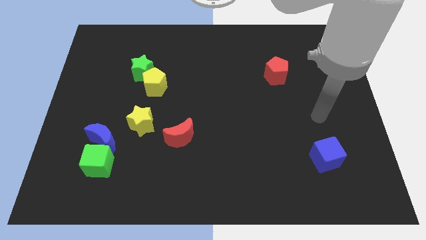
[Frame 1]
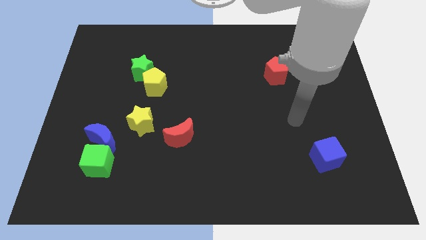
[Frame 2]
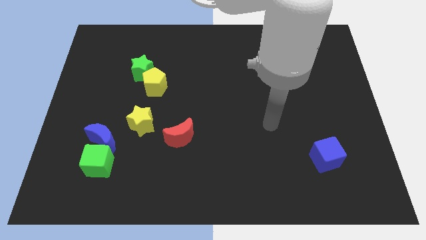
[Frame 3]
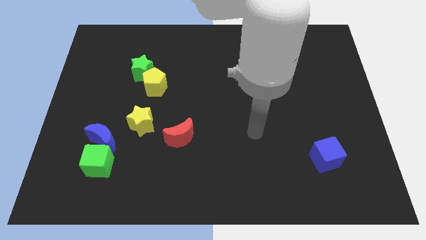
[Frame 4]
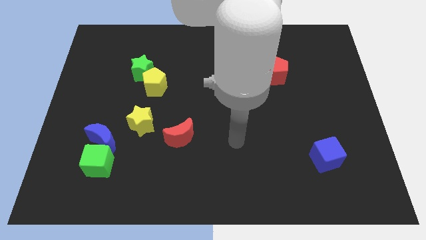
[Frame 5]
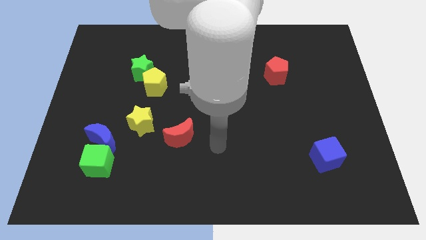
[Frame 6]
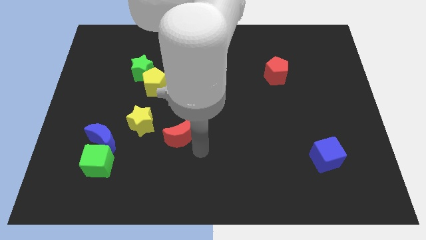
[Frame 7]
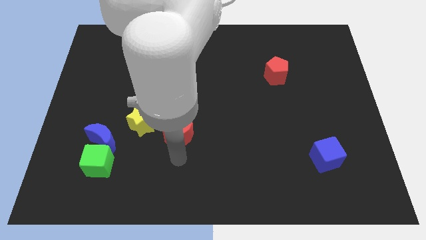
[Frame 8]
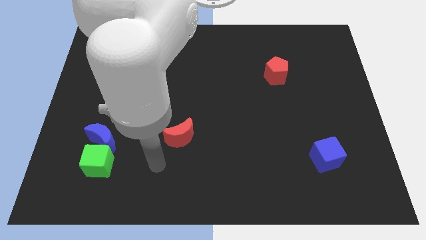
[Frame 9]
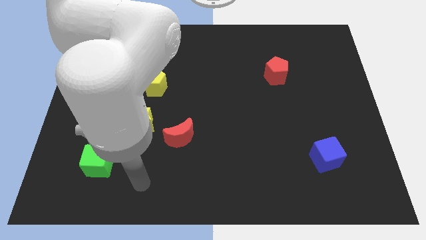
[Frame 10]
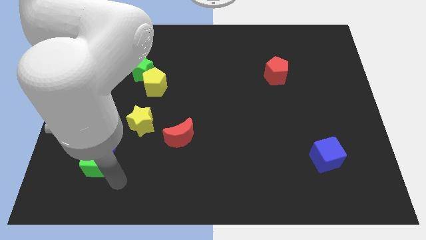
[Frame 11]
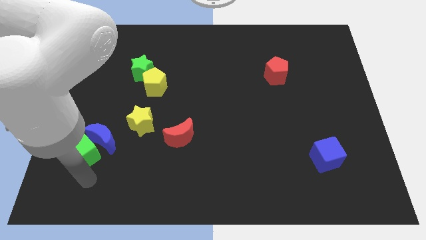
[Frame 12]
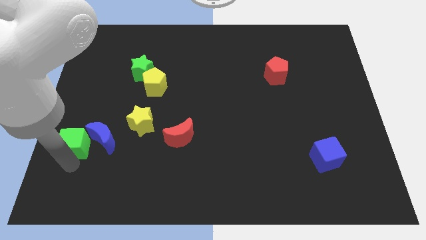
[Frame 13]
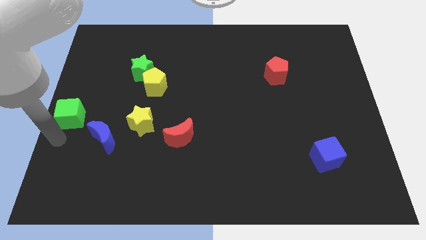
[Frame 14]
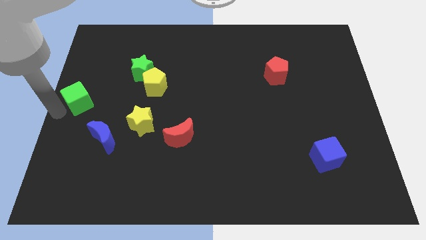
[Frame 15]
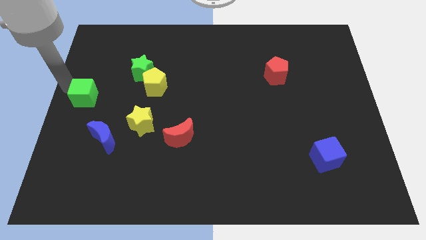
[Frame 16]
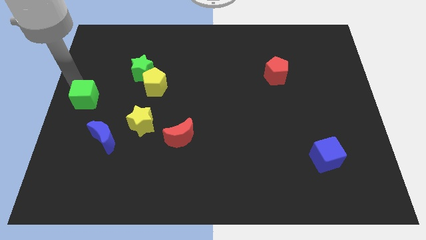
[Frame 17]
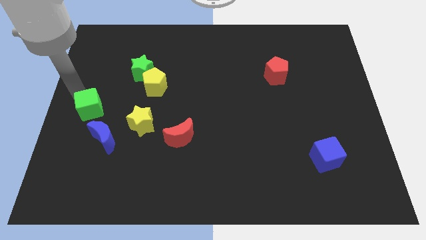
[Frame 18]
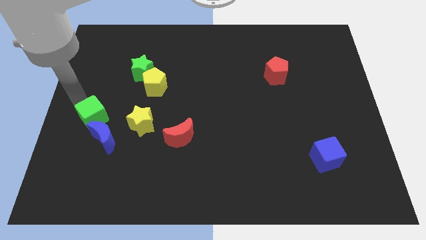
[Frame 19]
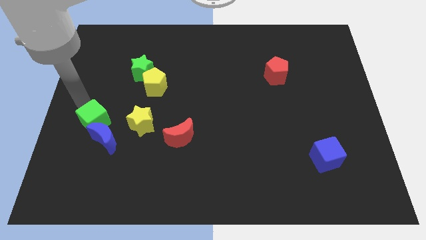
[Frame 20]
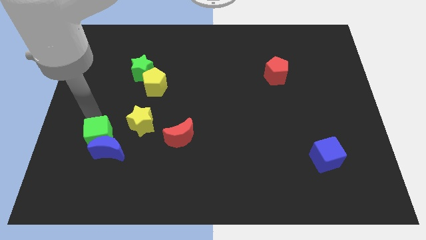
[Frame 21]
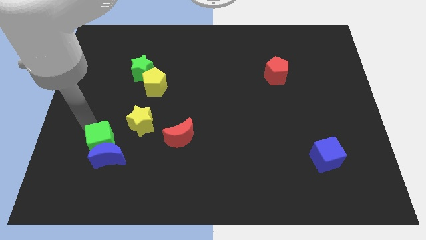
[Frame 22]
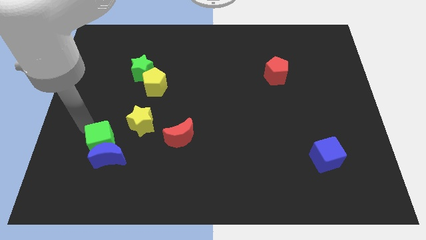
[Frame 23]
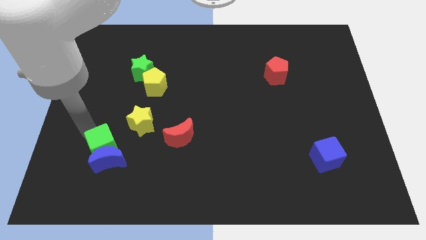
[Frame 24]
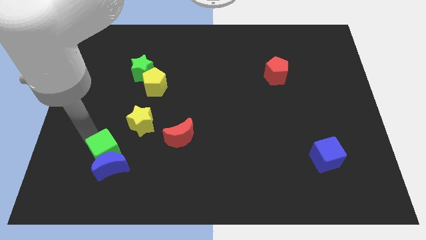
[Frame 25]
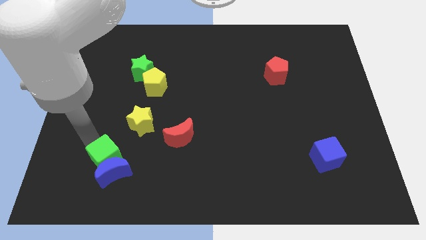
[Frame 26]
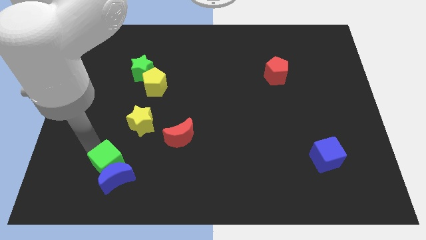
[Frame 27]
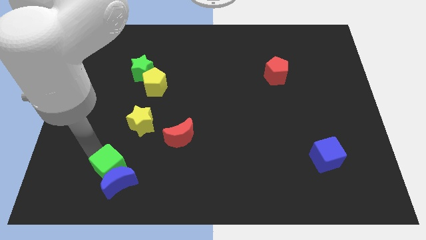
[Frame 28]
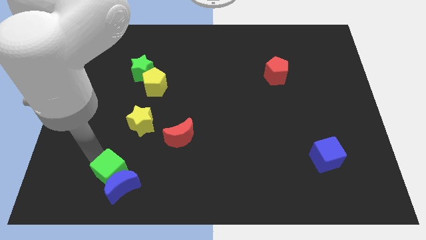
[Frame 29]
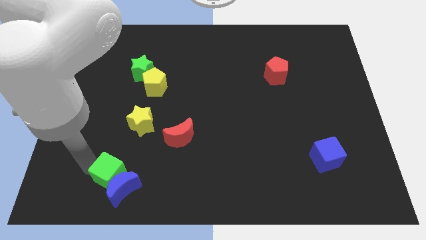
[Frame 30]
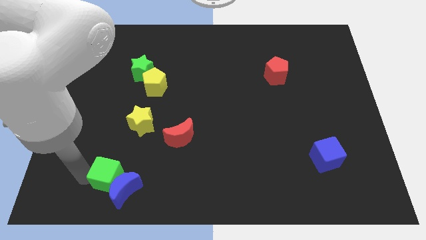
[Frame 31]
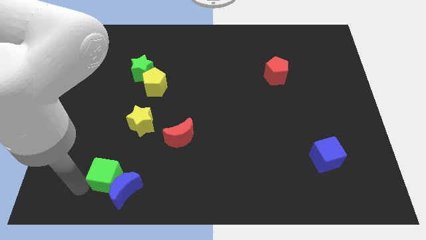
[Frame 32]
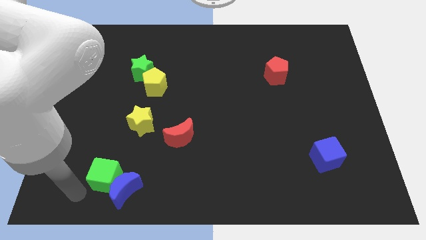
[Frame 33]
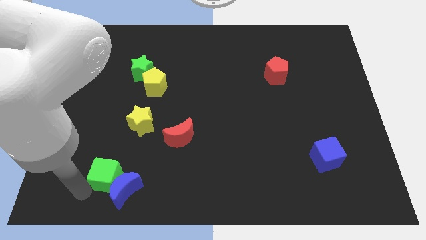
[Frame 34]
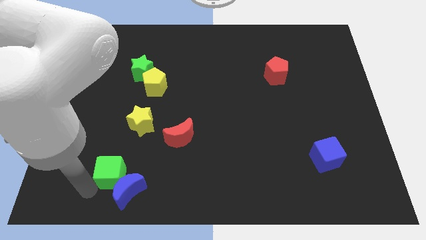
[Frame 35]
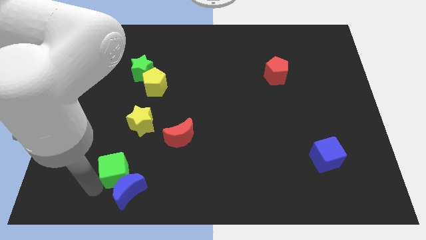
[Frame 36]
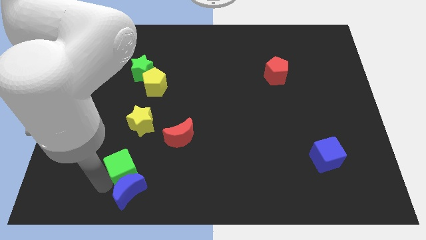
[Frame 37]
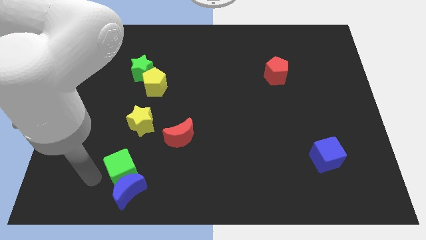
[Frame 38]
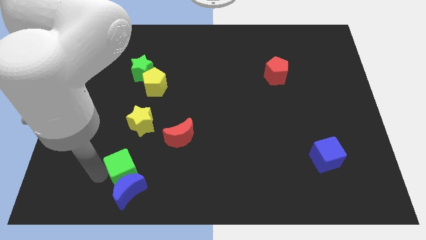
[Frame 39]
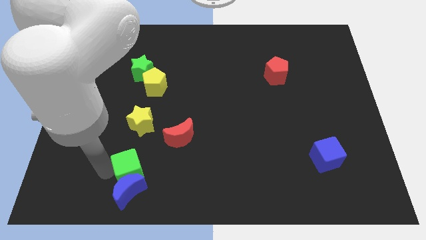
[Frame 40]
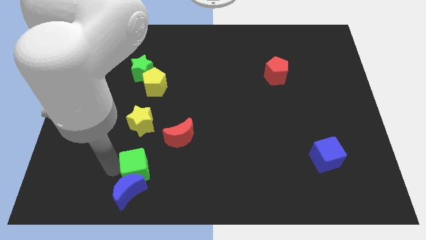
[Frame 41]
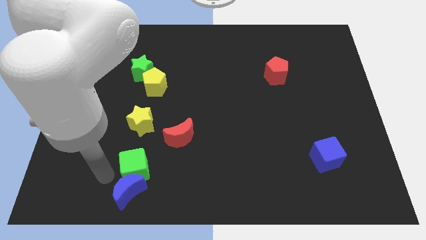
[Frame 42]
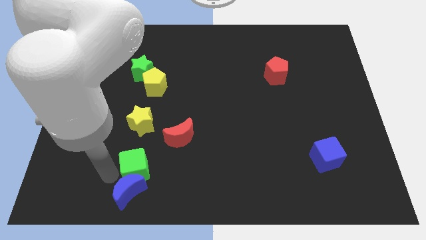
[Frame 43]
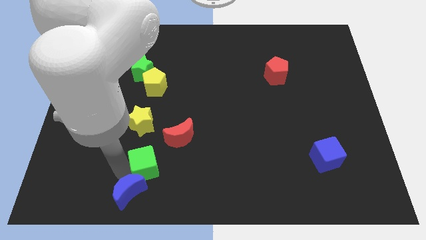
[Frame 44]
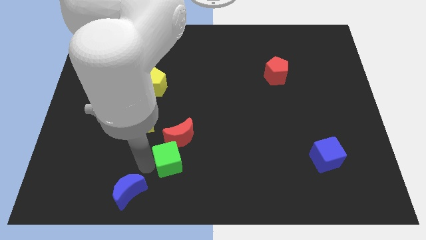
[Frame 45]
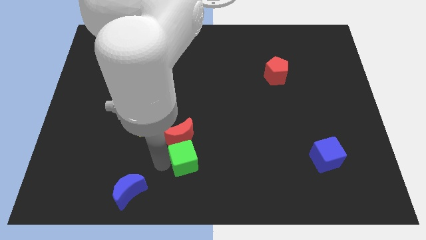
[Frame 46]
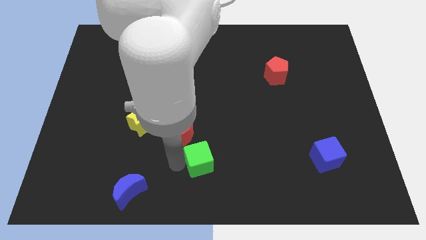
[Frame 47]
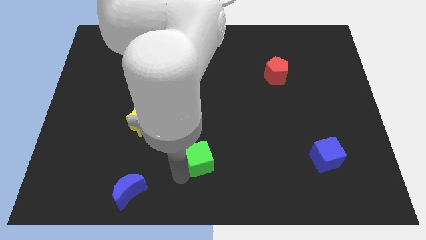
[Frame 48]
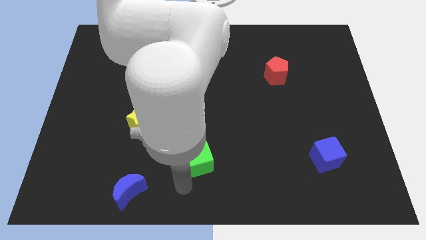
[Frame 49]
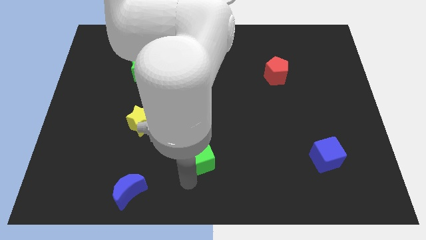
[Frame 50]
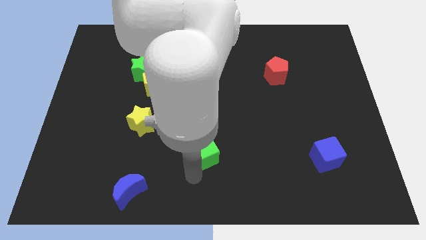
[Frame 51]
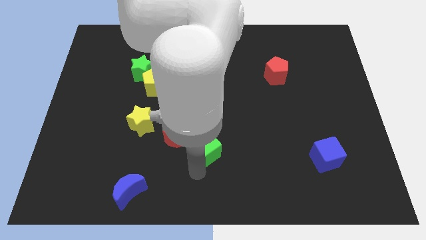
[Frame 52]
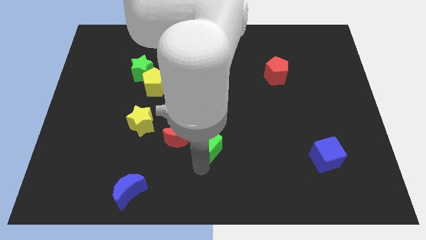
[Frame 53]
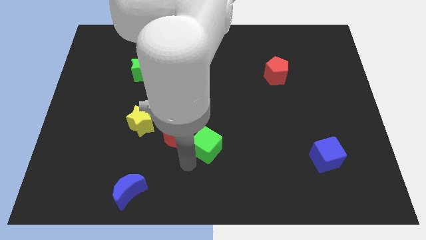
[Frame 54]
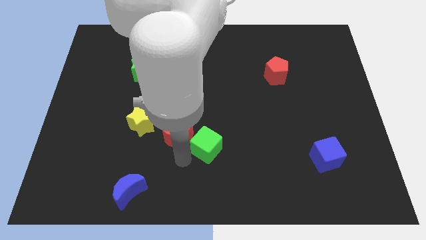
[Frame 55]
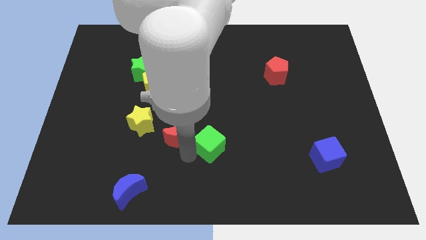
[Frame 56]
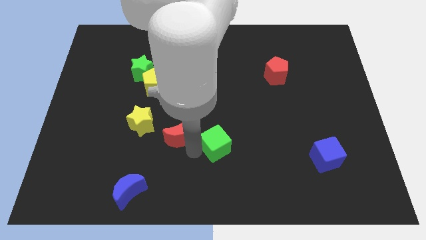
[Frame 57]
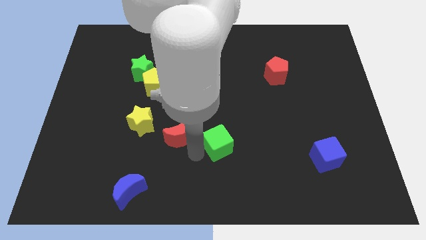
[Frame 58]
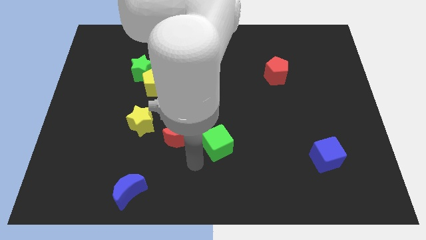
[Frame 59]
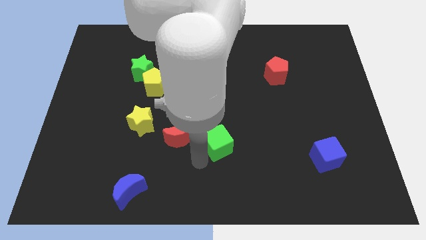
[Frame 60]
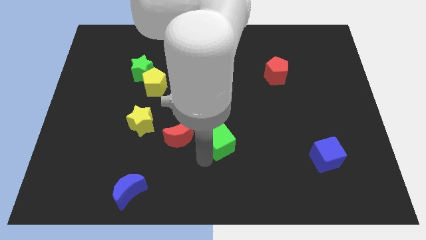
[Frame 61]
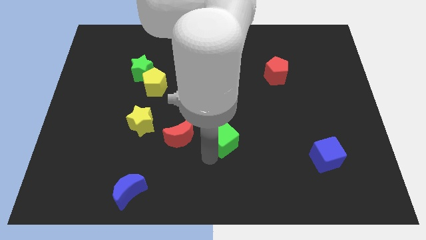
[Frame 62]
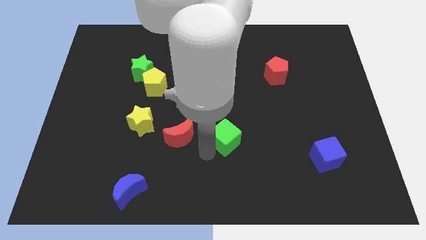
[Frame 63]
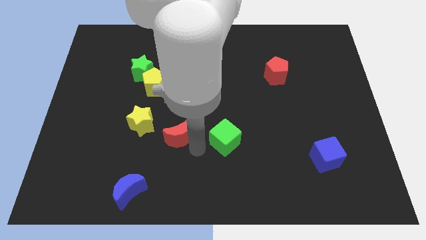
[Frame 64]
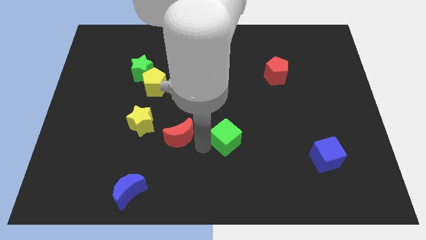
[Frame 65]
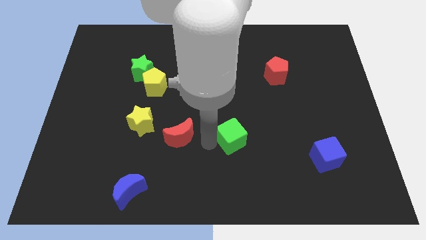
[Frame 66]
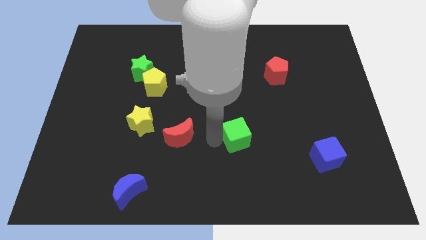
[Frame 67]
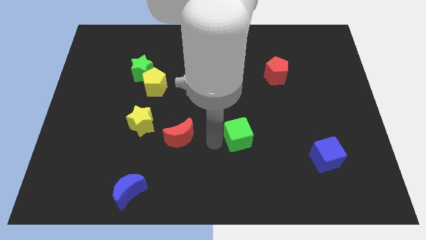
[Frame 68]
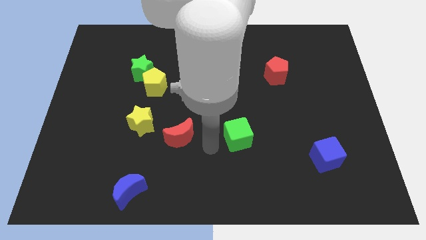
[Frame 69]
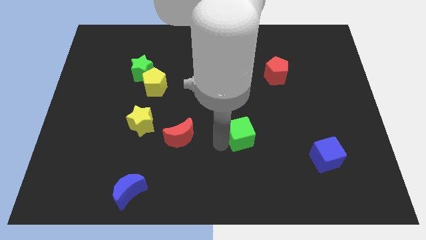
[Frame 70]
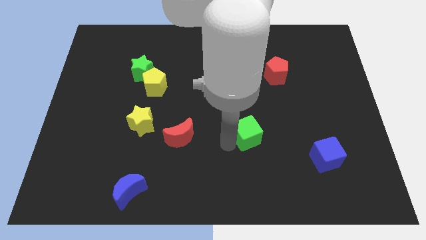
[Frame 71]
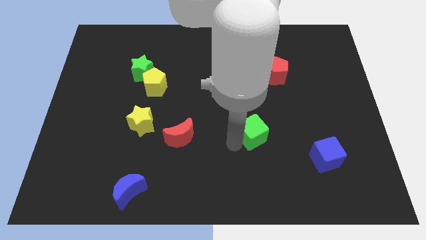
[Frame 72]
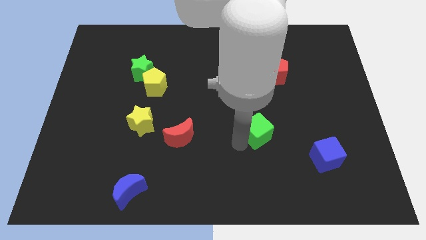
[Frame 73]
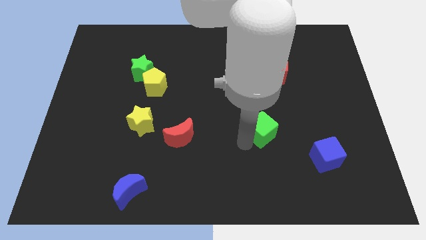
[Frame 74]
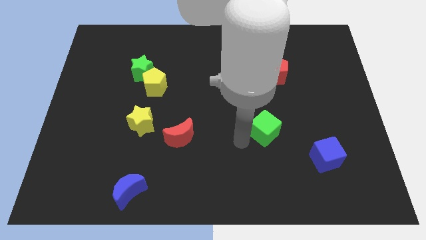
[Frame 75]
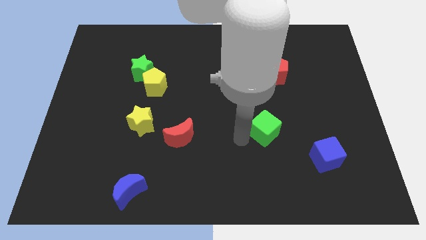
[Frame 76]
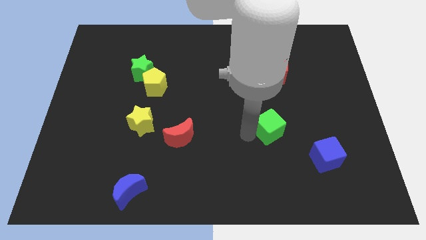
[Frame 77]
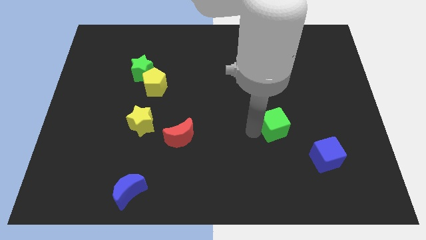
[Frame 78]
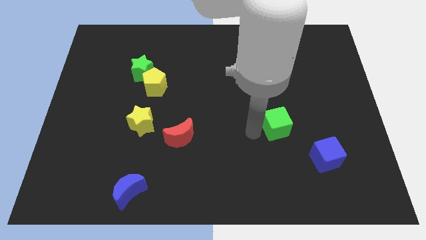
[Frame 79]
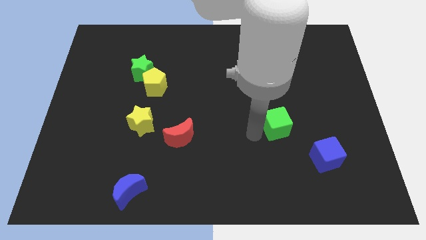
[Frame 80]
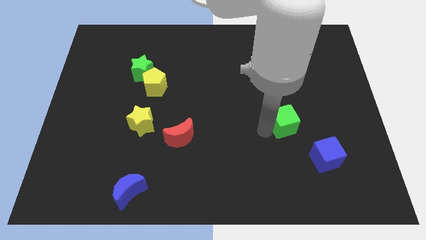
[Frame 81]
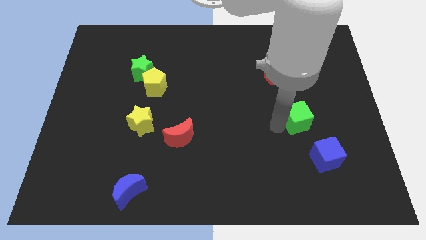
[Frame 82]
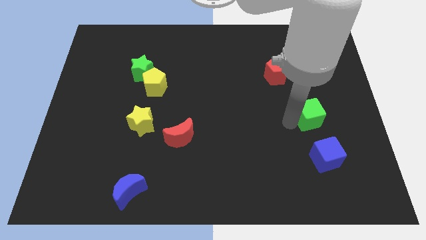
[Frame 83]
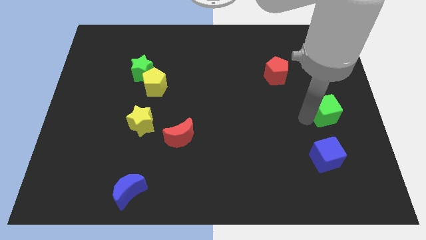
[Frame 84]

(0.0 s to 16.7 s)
move the green cube to the right side of the board
